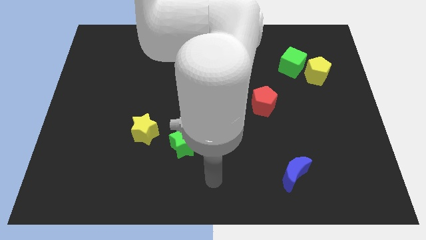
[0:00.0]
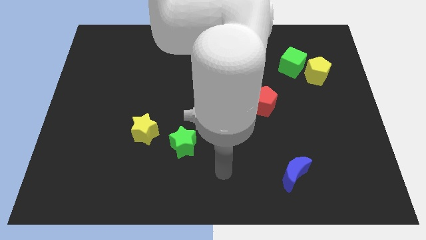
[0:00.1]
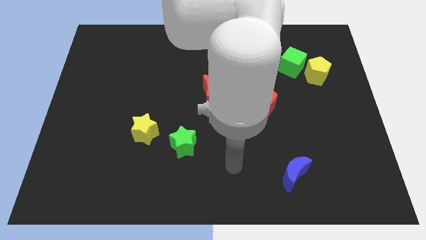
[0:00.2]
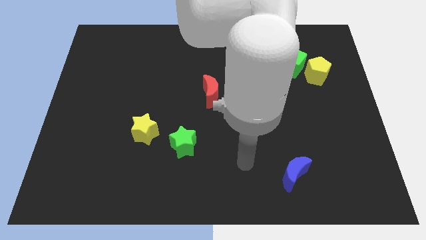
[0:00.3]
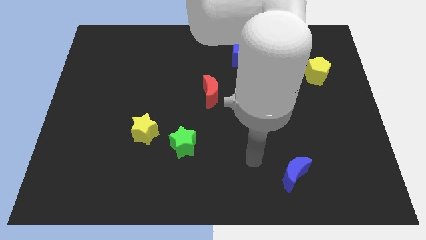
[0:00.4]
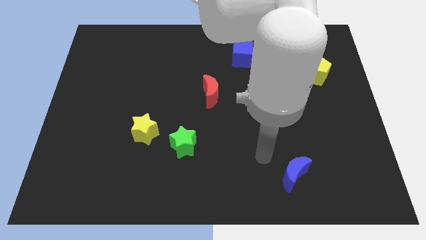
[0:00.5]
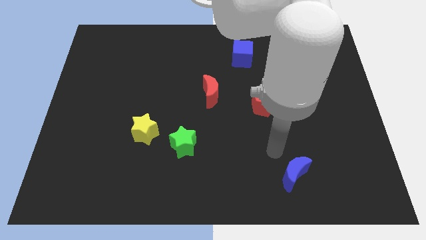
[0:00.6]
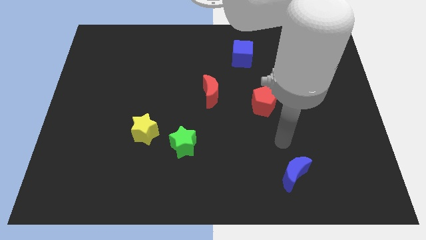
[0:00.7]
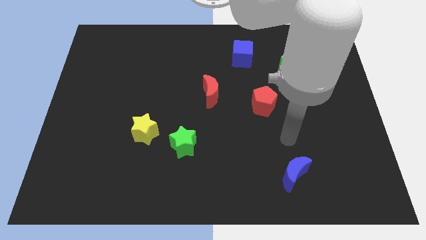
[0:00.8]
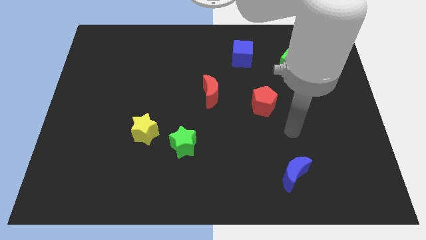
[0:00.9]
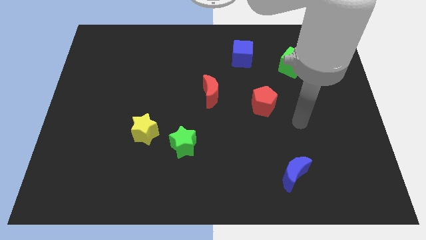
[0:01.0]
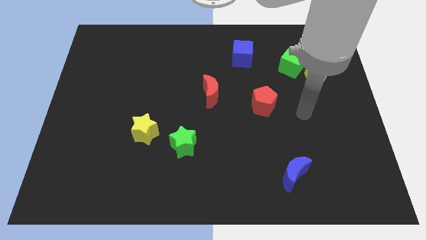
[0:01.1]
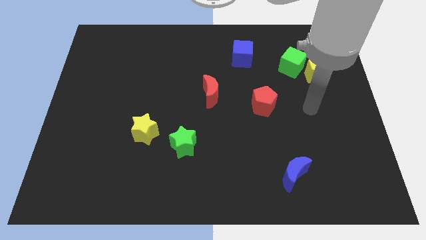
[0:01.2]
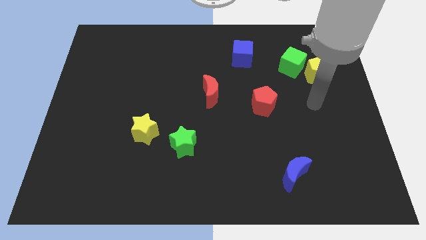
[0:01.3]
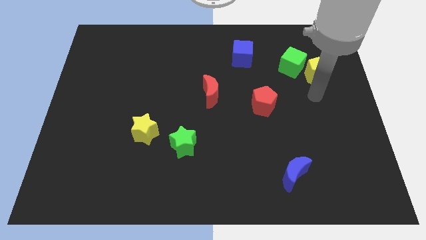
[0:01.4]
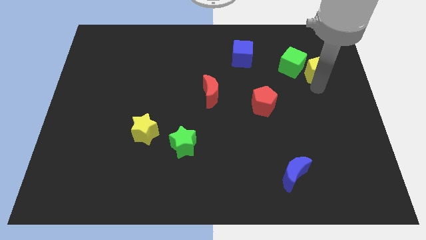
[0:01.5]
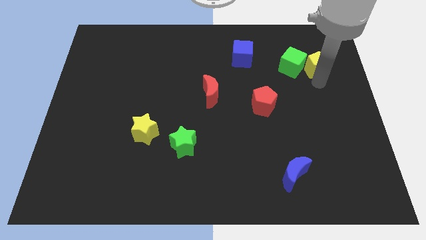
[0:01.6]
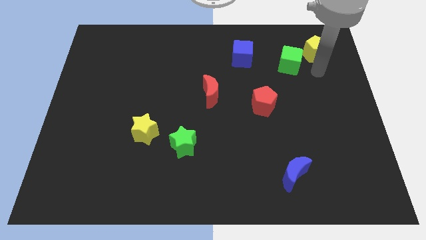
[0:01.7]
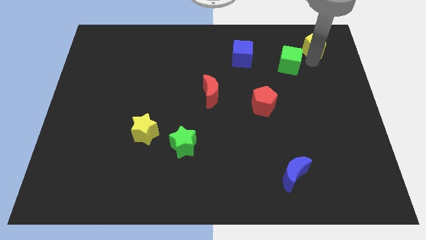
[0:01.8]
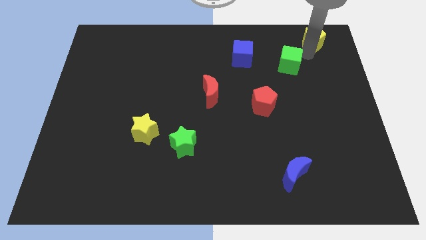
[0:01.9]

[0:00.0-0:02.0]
pull the green cube apart from the yellow pentagon

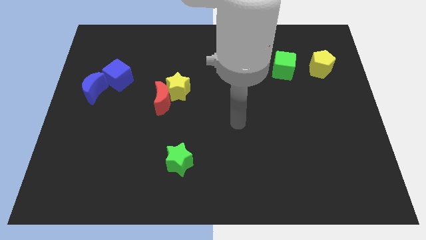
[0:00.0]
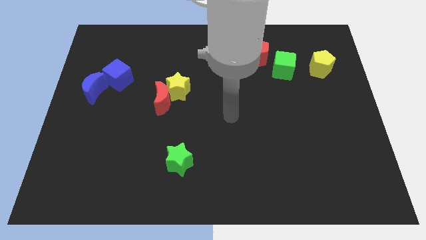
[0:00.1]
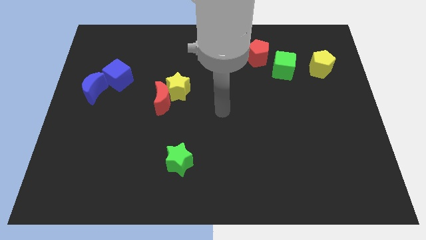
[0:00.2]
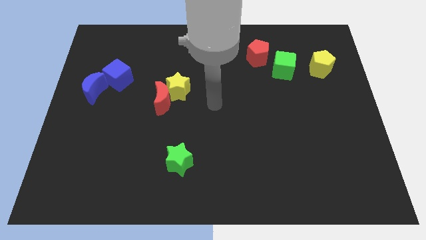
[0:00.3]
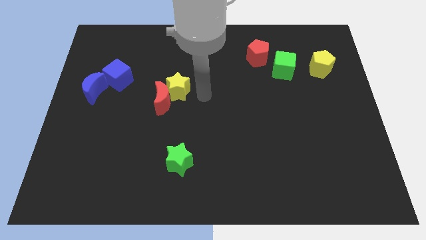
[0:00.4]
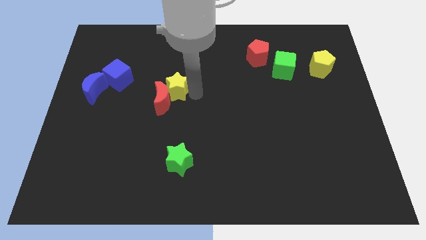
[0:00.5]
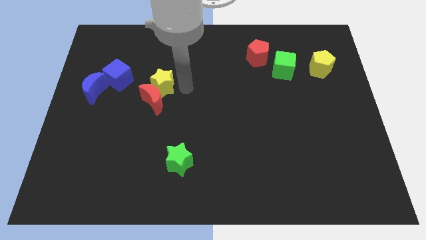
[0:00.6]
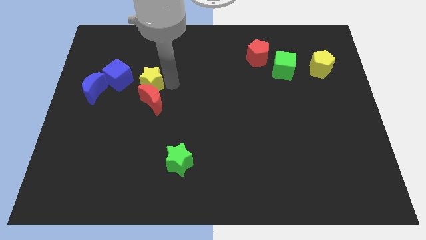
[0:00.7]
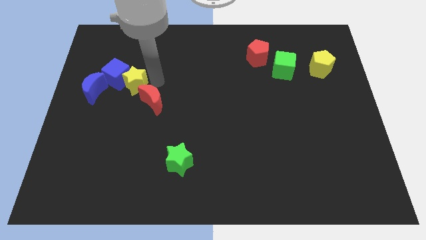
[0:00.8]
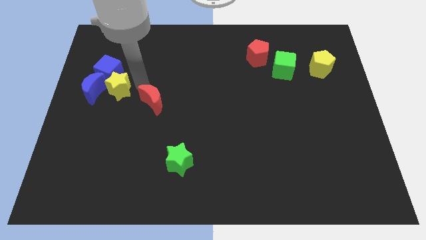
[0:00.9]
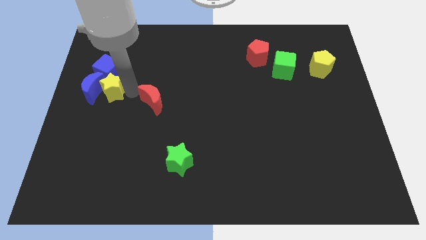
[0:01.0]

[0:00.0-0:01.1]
pull the red moon apart from the yellow star

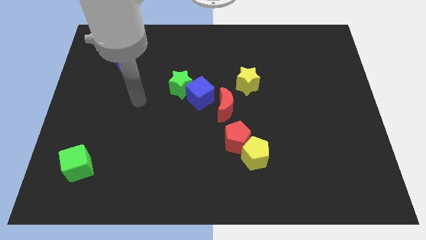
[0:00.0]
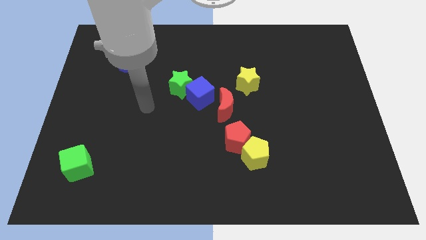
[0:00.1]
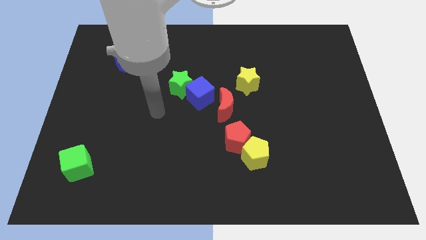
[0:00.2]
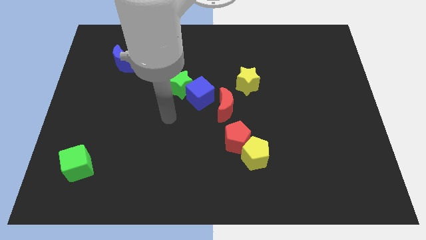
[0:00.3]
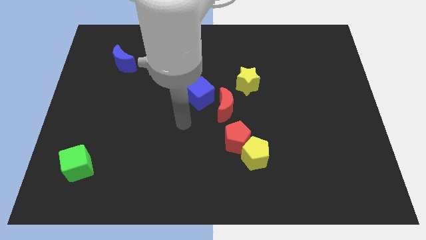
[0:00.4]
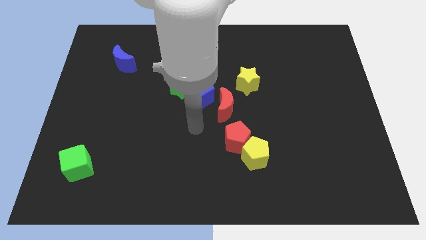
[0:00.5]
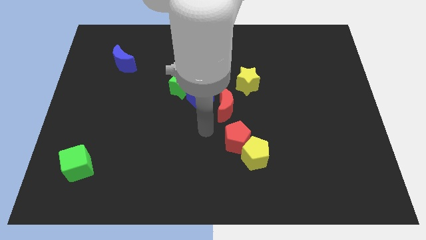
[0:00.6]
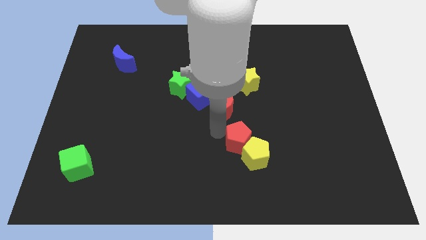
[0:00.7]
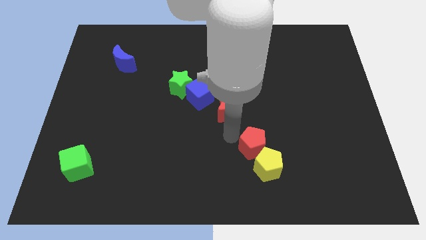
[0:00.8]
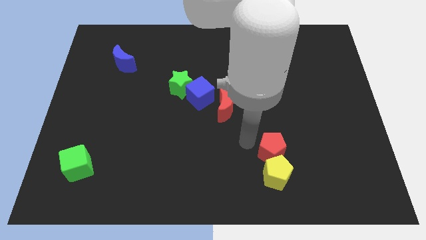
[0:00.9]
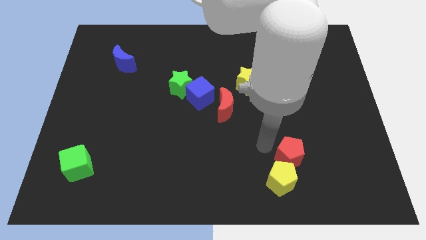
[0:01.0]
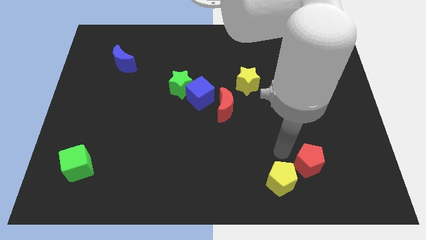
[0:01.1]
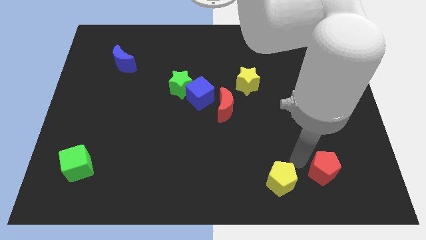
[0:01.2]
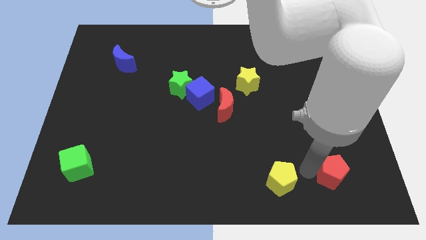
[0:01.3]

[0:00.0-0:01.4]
pull the yellow pentagon apart from the red pentagon

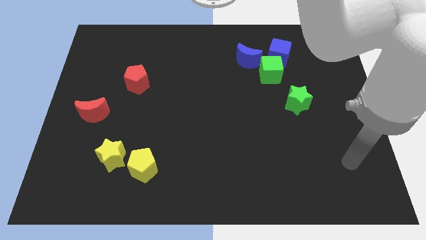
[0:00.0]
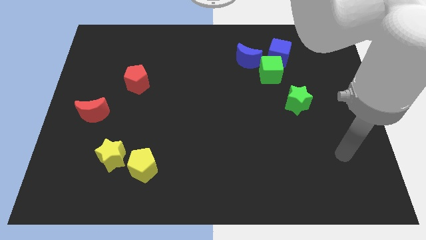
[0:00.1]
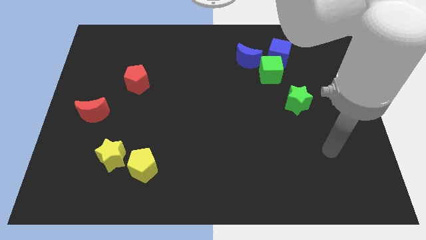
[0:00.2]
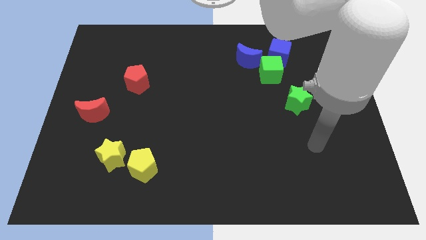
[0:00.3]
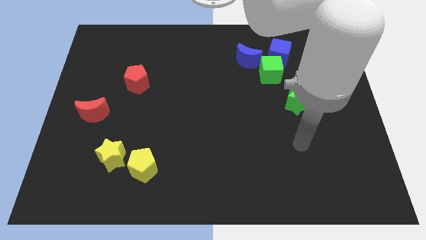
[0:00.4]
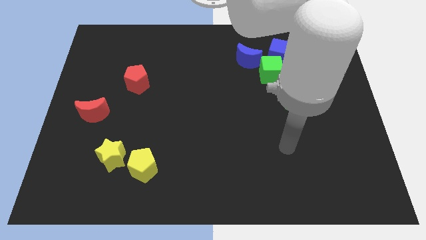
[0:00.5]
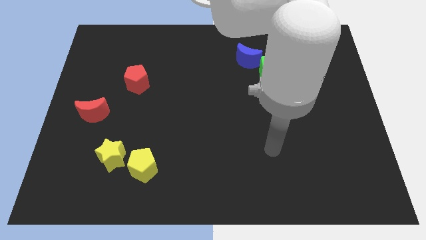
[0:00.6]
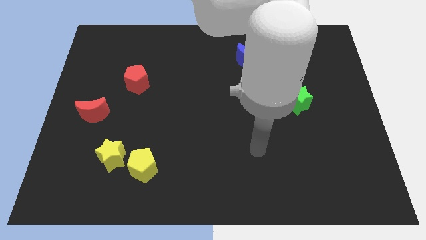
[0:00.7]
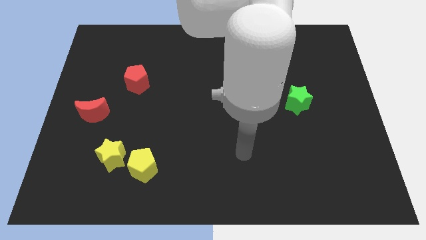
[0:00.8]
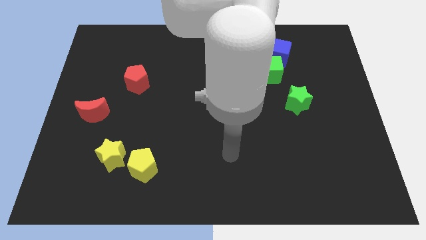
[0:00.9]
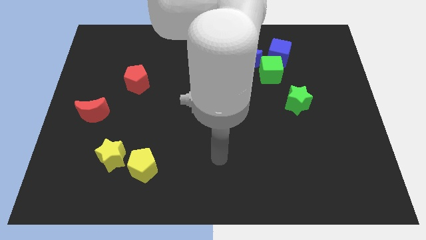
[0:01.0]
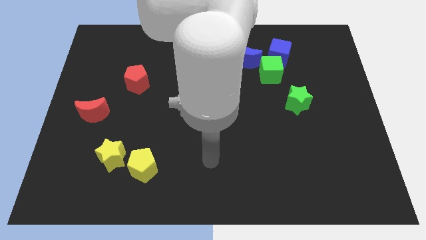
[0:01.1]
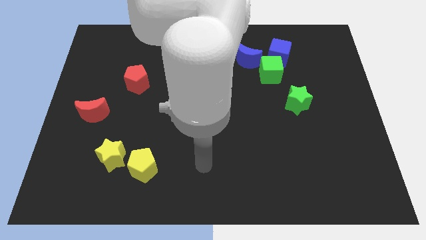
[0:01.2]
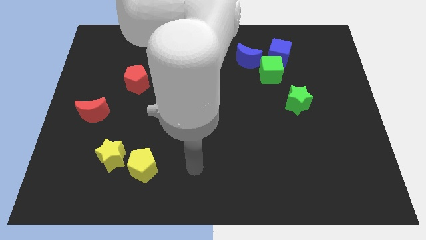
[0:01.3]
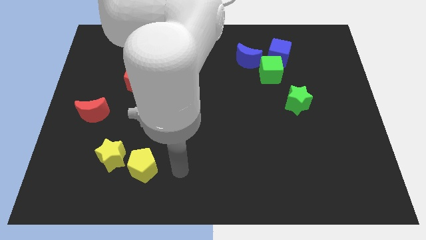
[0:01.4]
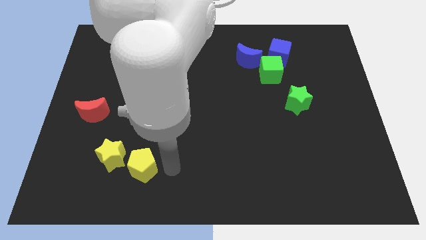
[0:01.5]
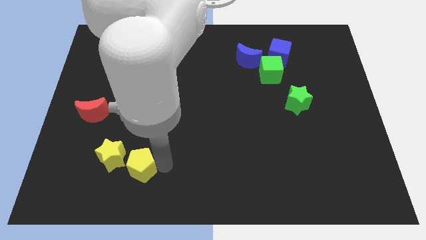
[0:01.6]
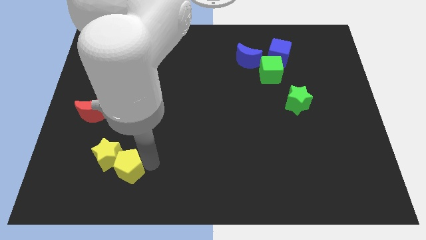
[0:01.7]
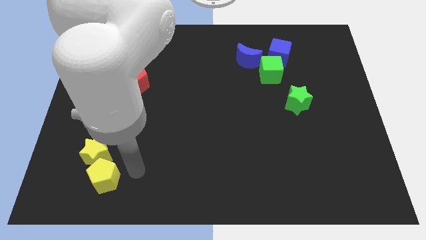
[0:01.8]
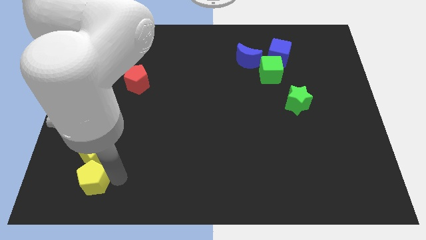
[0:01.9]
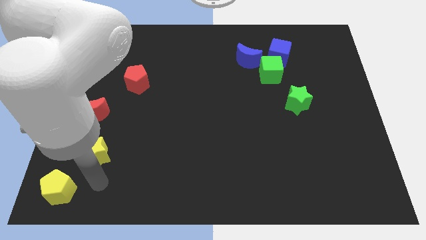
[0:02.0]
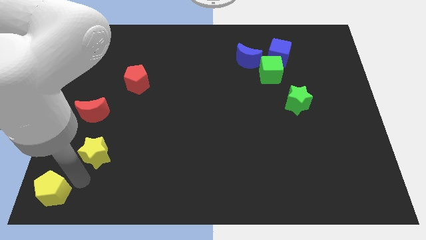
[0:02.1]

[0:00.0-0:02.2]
move the yellow star away from the yellow pentagon

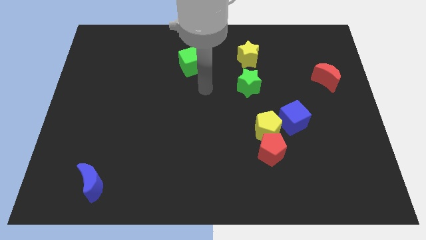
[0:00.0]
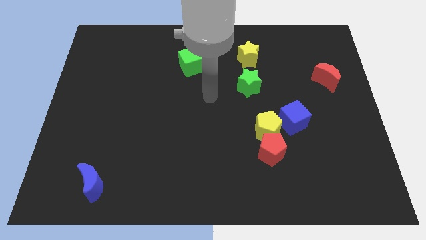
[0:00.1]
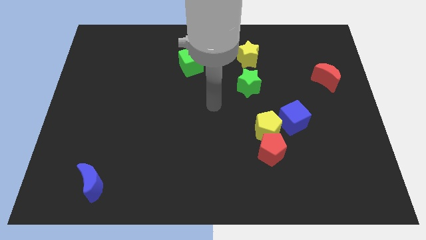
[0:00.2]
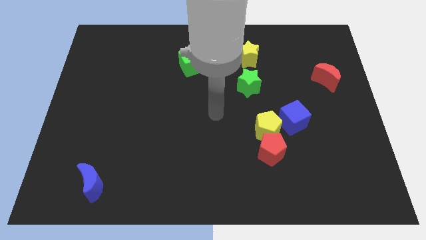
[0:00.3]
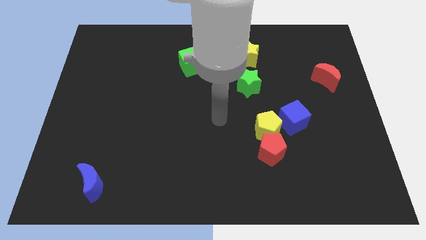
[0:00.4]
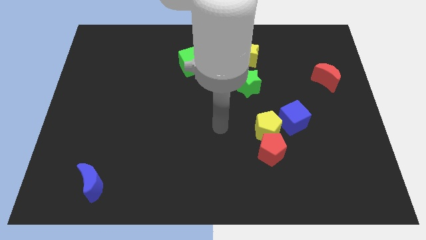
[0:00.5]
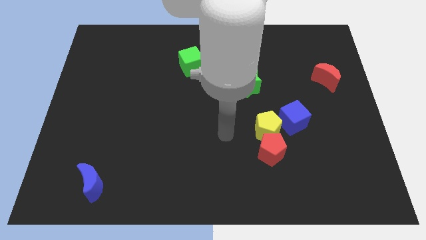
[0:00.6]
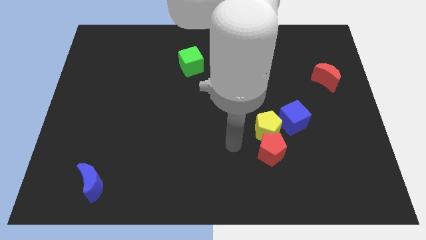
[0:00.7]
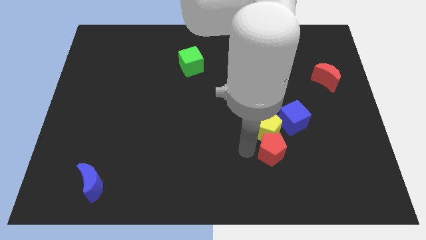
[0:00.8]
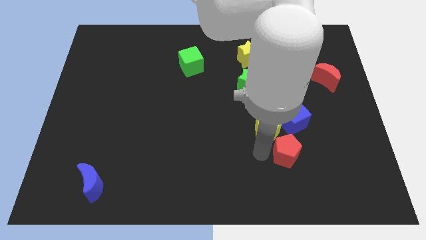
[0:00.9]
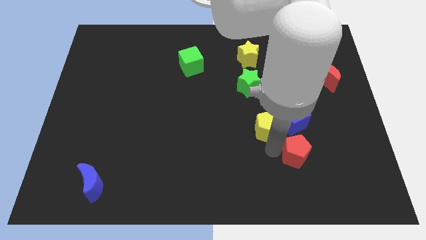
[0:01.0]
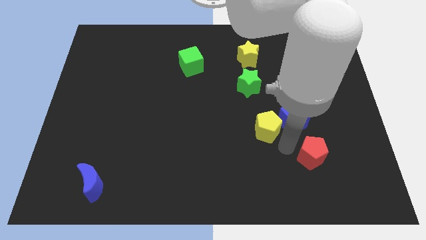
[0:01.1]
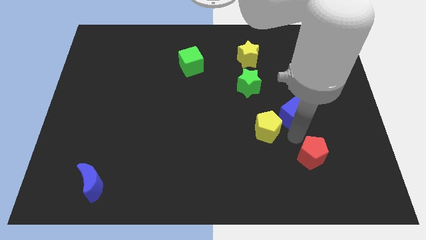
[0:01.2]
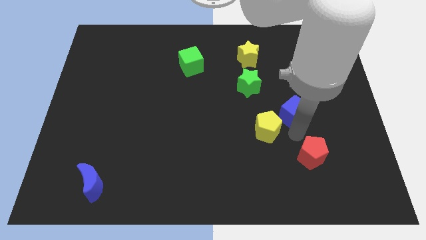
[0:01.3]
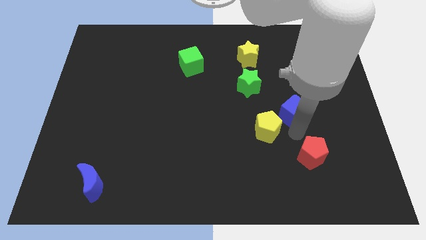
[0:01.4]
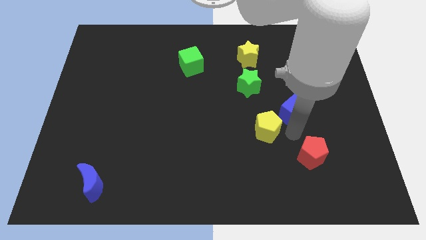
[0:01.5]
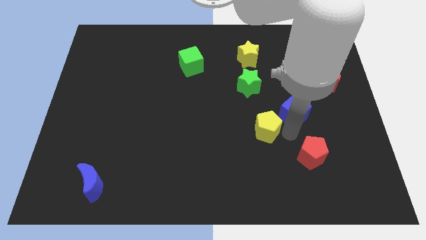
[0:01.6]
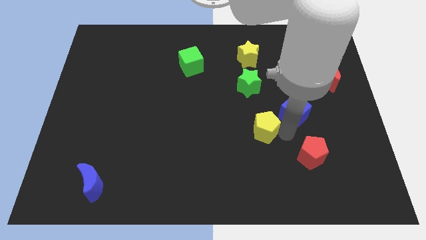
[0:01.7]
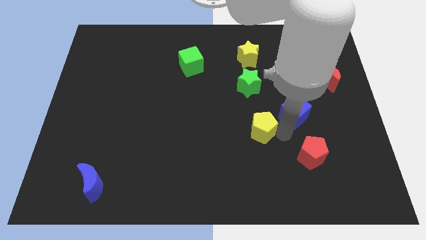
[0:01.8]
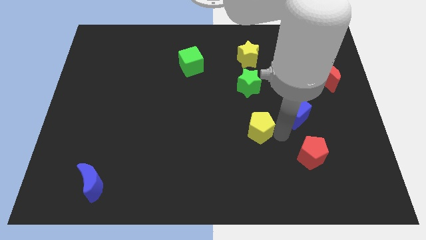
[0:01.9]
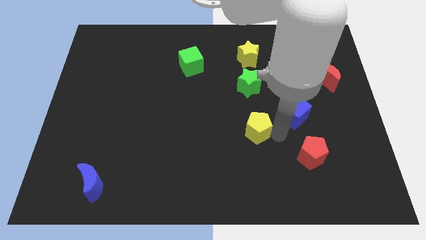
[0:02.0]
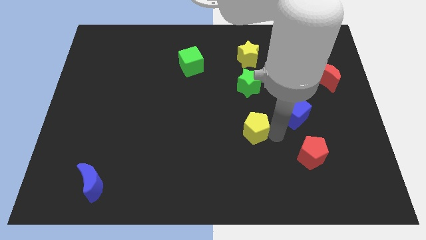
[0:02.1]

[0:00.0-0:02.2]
move the yellow pentagon away from the red pentagon and blue cube

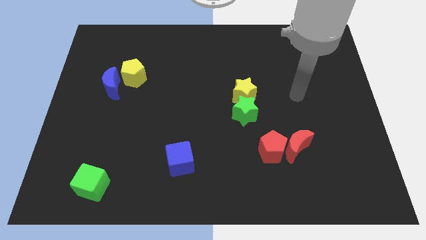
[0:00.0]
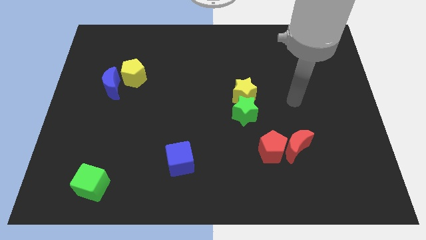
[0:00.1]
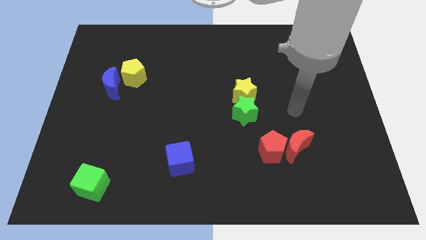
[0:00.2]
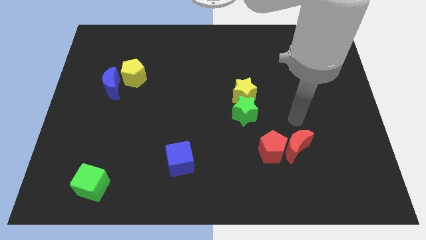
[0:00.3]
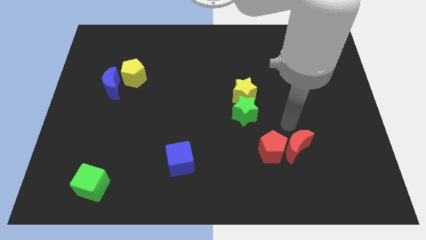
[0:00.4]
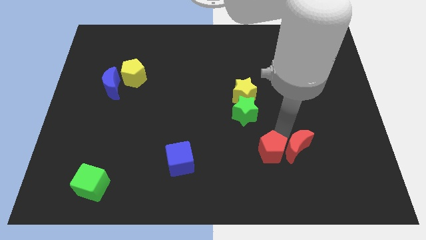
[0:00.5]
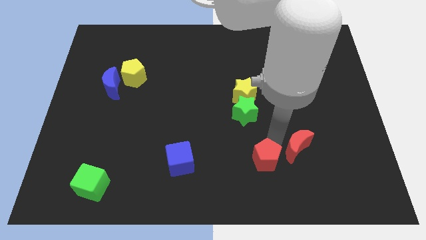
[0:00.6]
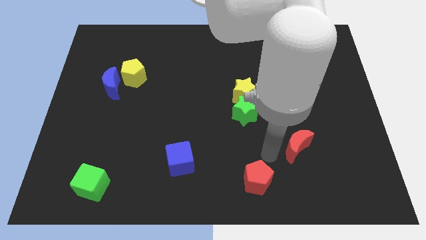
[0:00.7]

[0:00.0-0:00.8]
separate the red moon from the red pentagon
